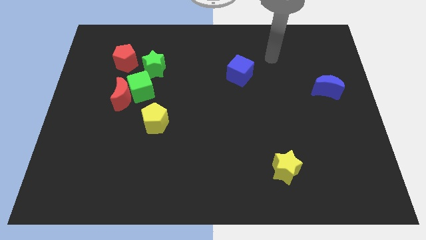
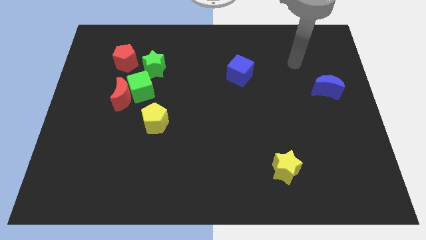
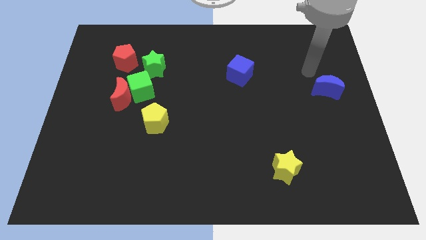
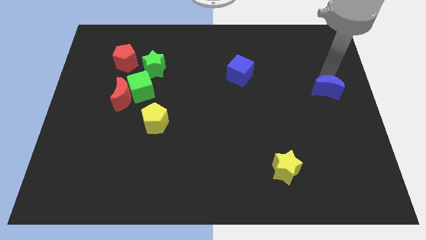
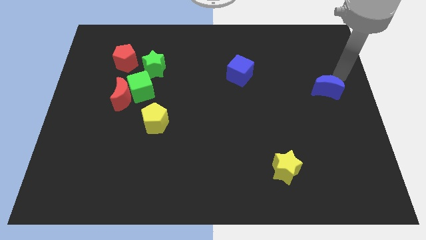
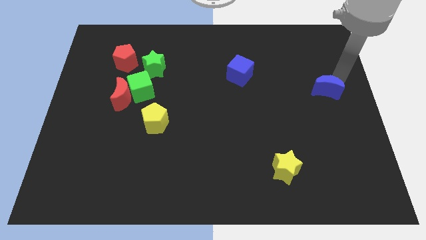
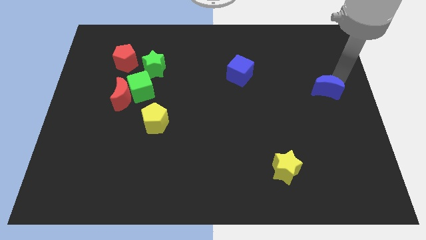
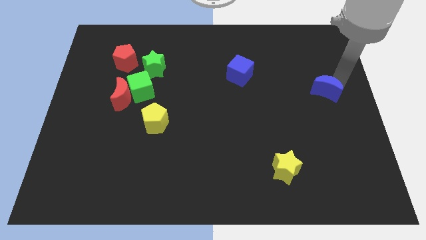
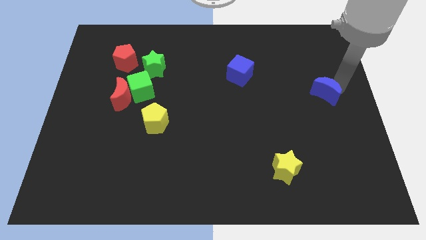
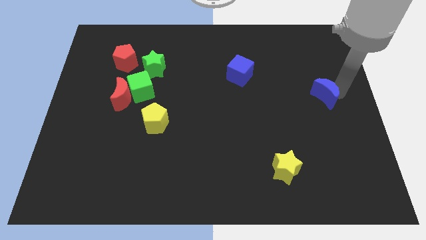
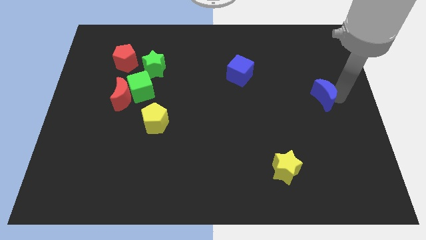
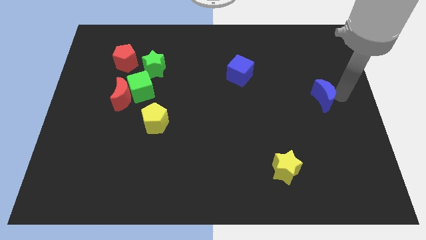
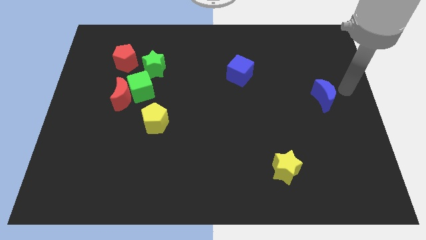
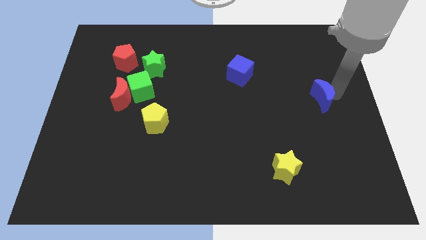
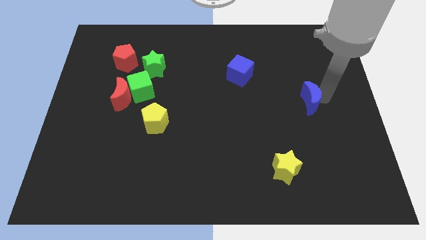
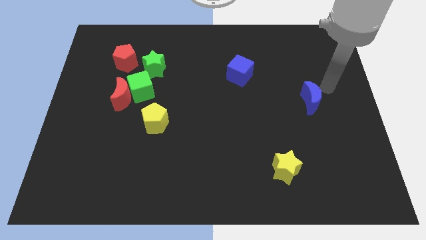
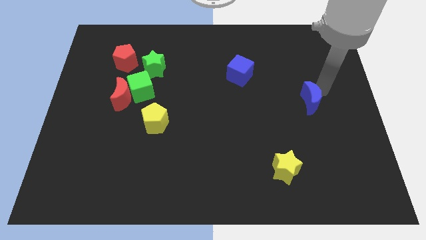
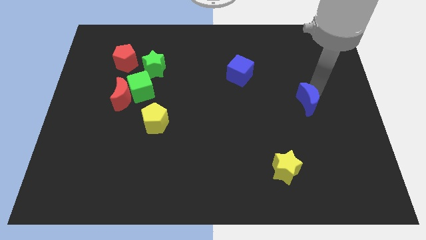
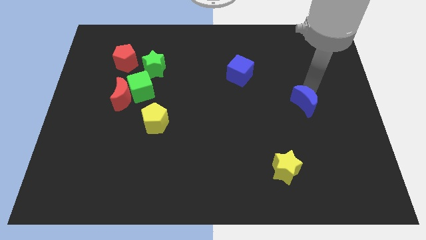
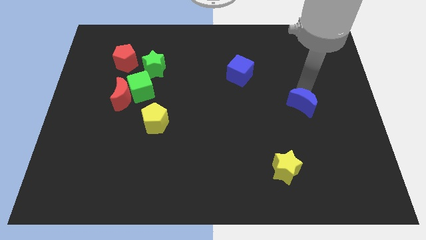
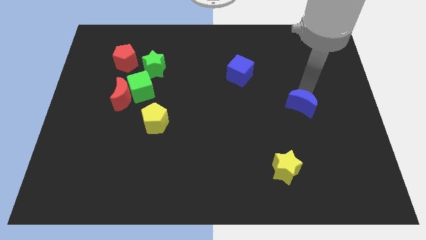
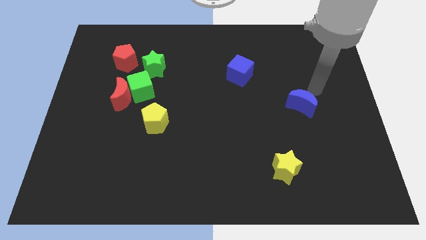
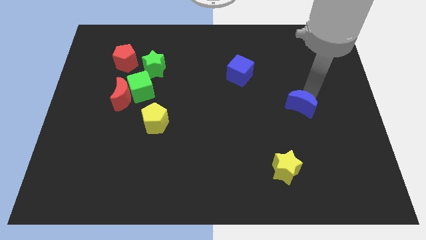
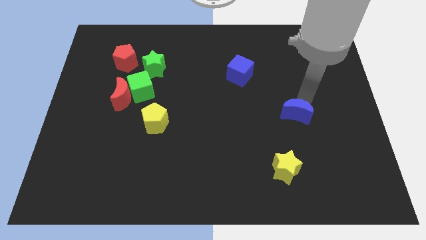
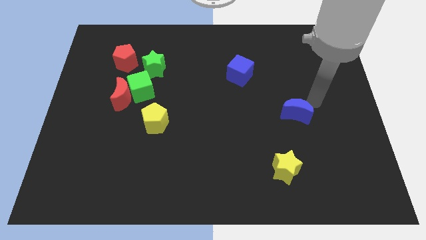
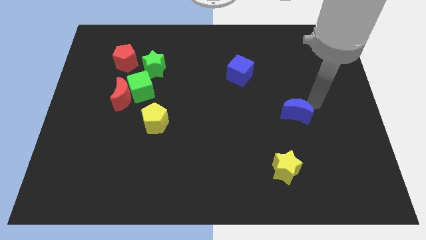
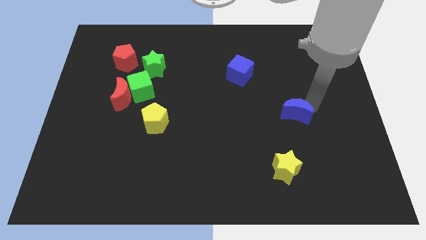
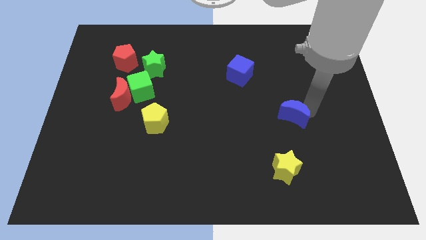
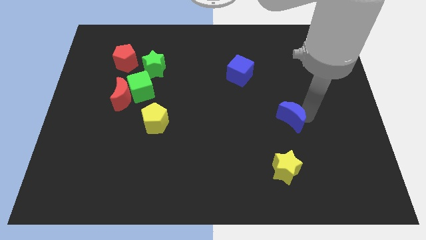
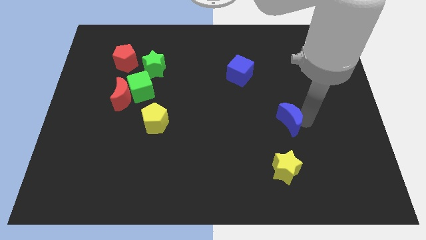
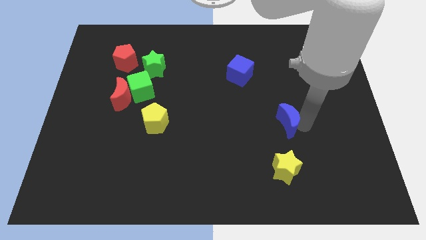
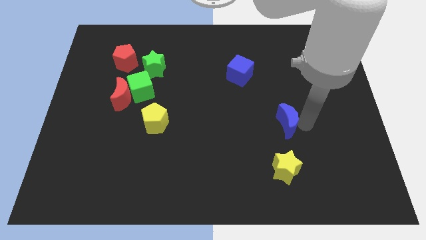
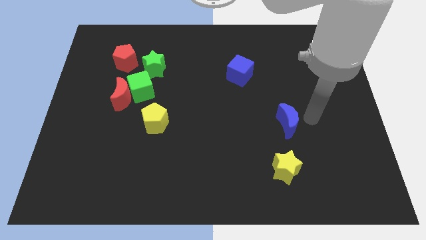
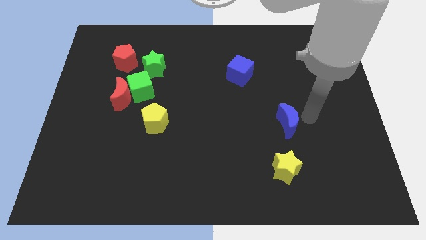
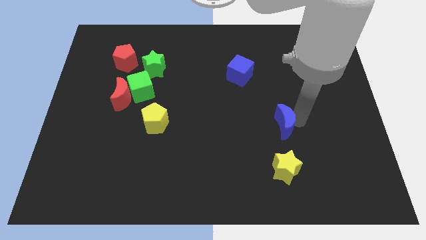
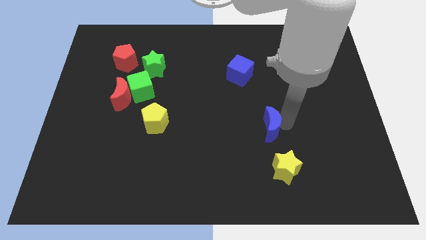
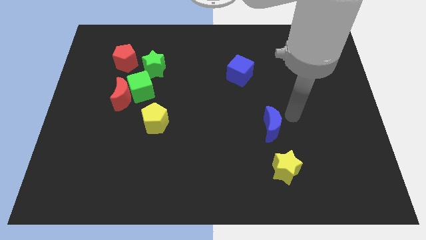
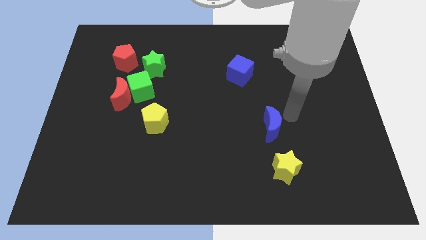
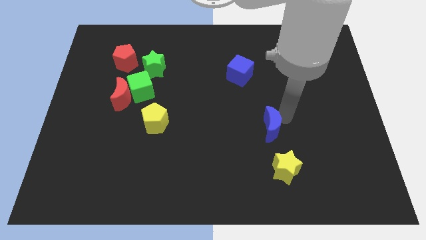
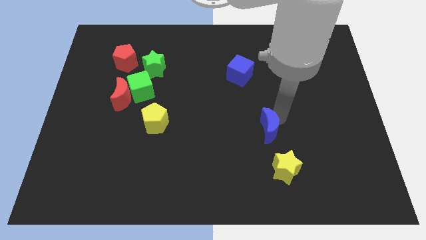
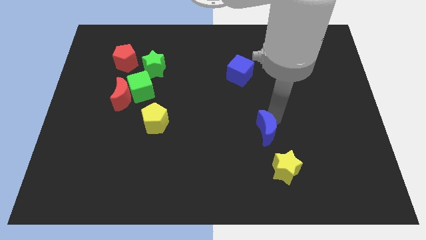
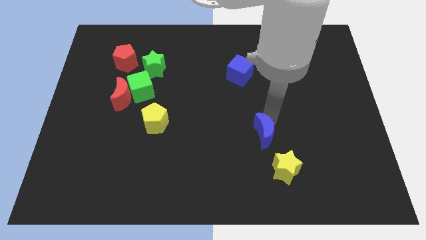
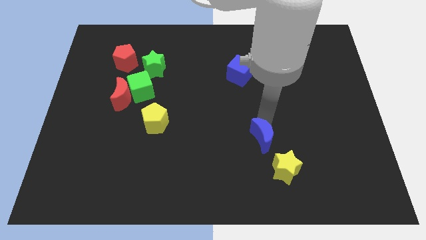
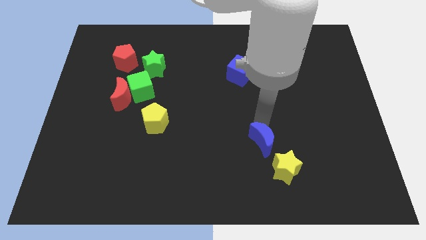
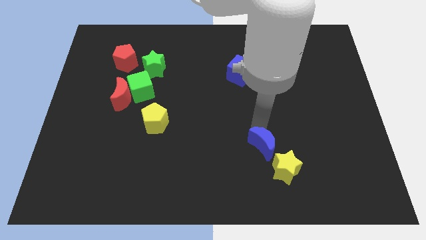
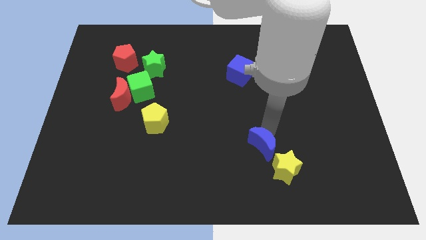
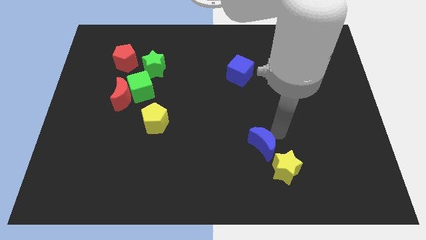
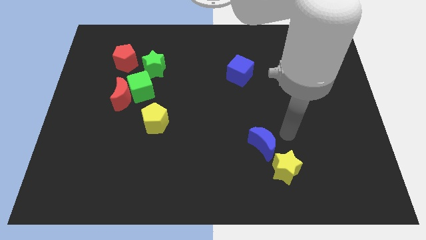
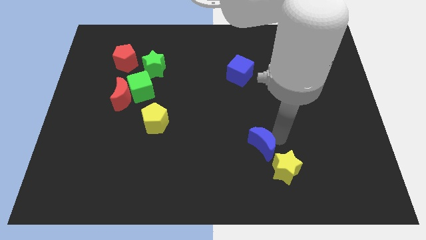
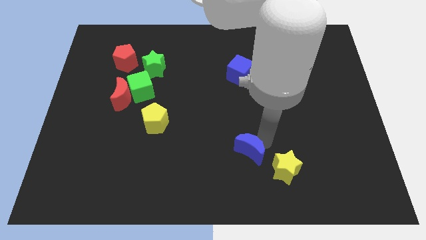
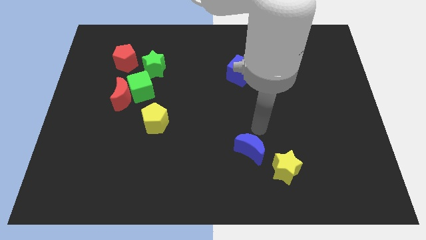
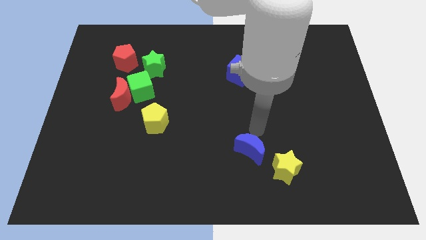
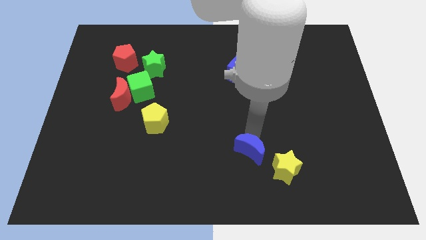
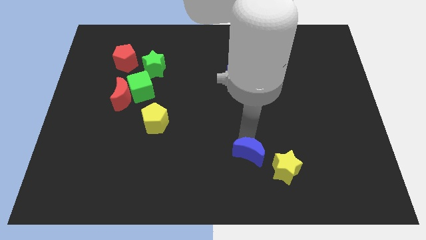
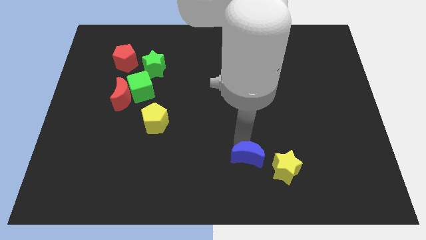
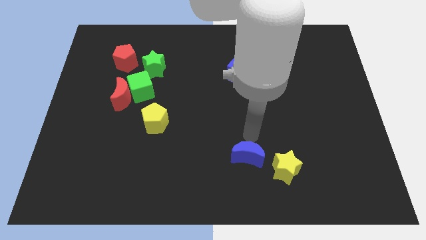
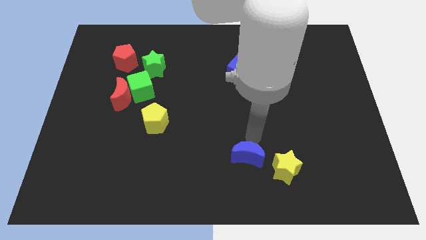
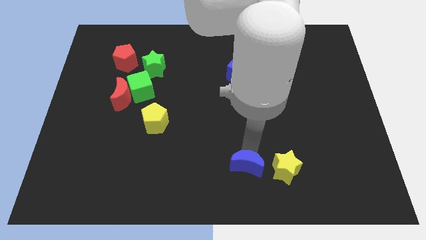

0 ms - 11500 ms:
push the blue moon to the bottom

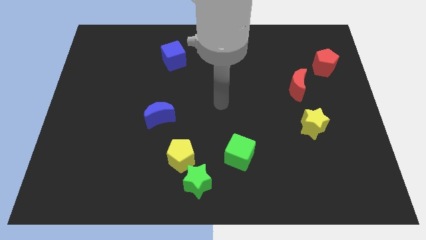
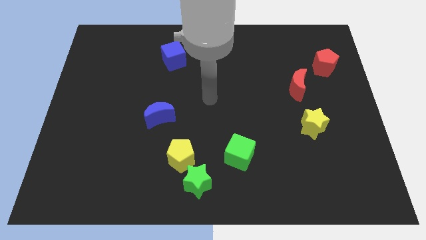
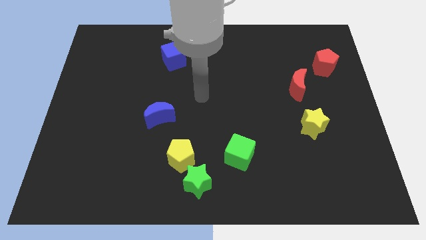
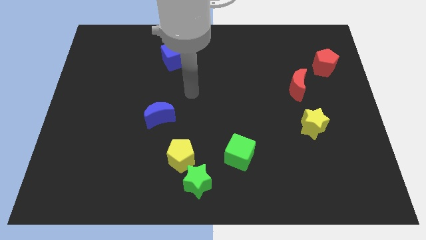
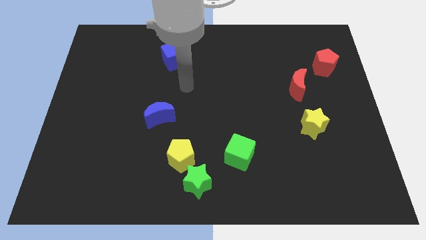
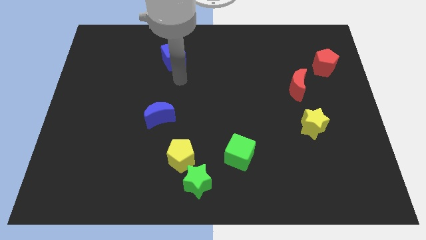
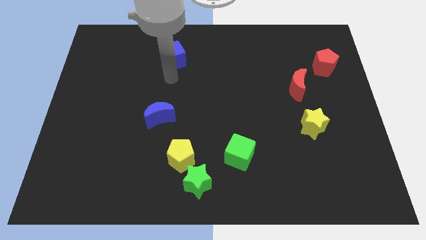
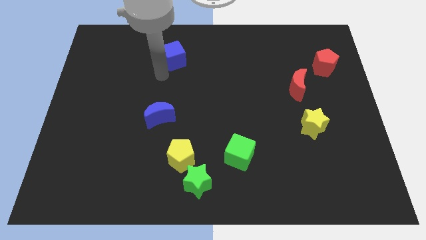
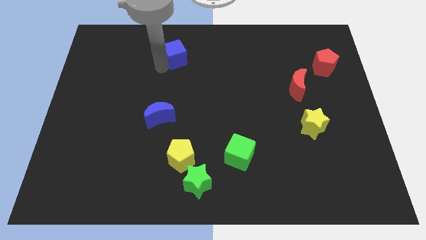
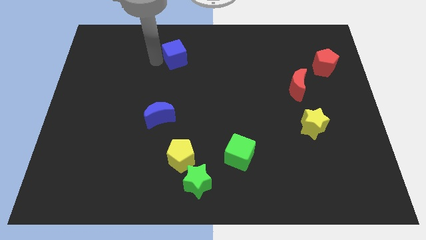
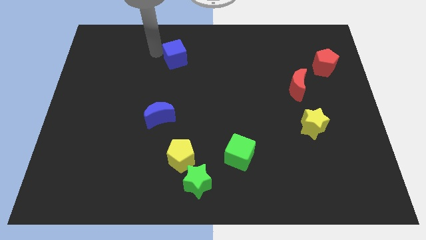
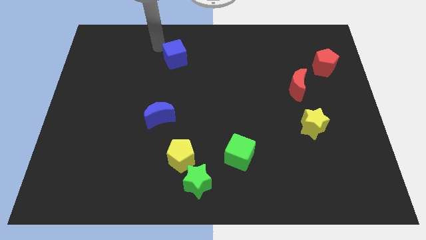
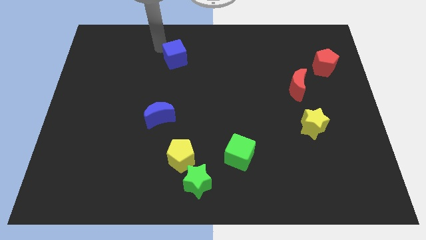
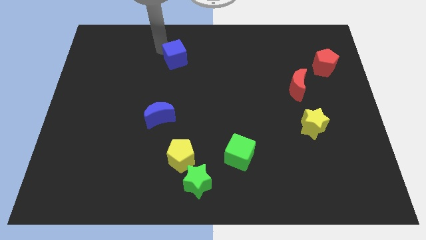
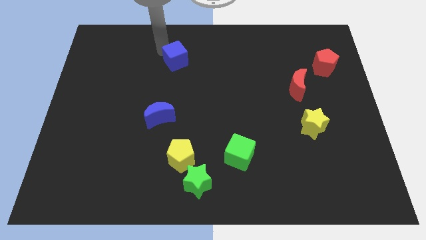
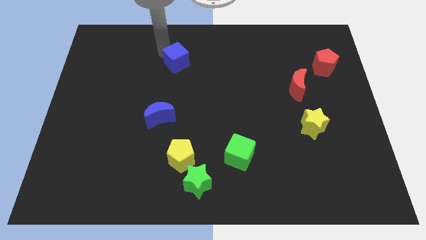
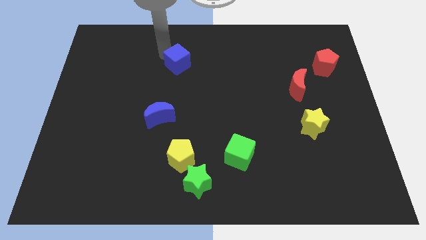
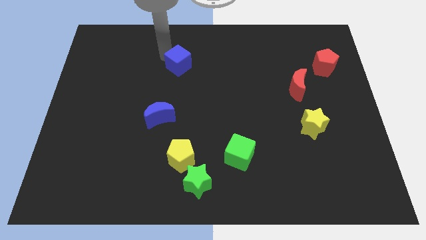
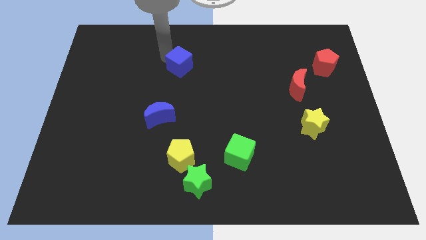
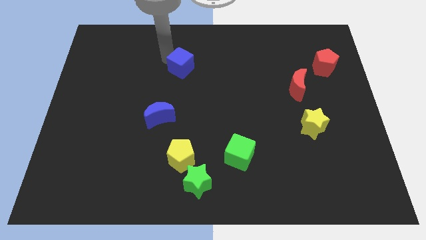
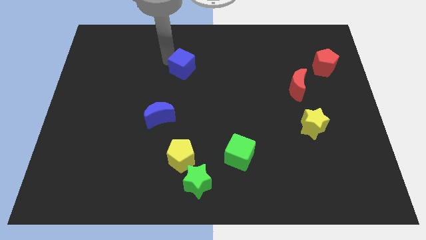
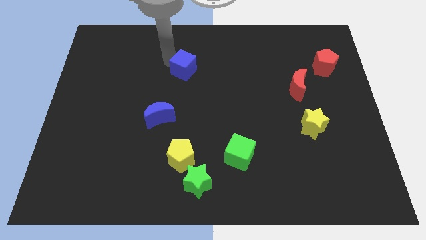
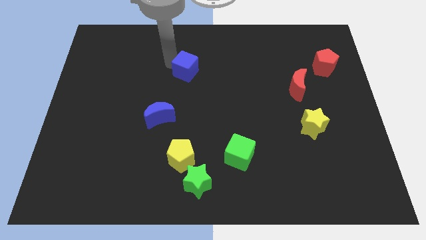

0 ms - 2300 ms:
move the blue cube to the middle
